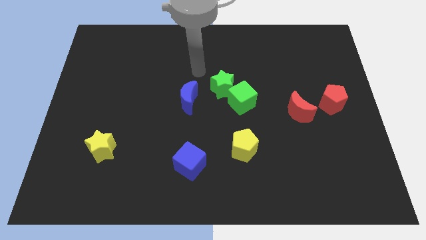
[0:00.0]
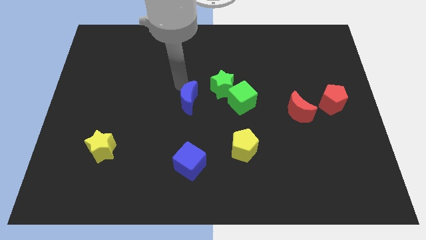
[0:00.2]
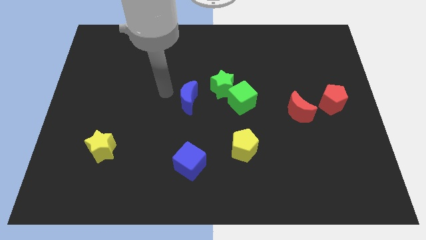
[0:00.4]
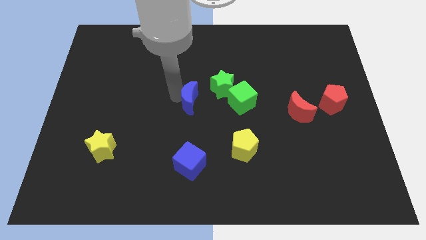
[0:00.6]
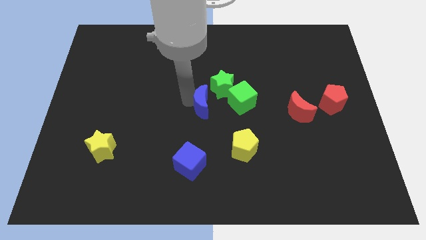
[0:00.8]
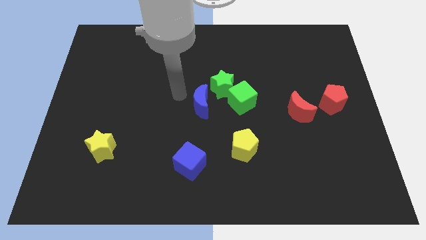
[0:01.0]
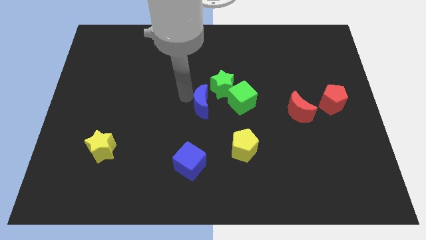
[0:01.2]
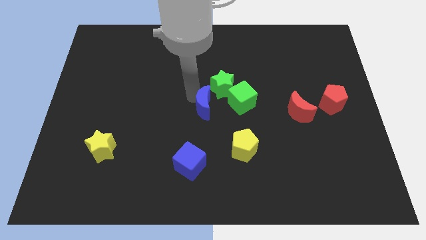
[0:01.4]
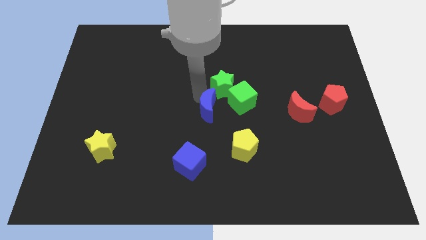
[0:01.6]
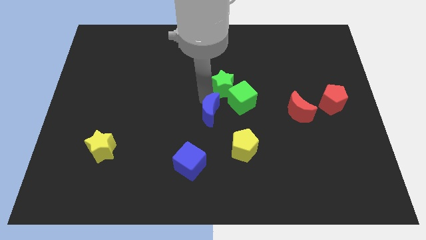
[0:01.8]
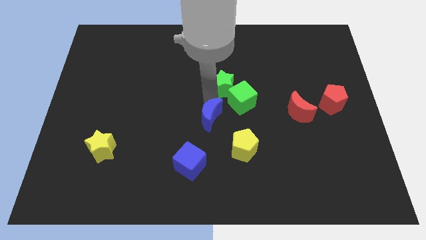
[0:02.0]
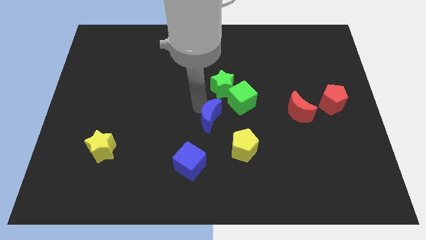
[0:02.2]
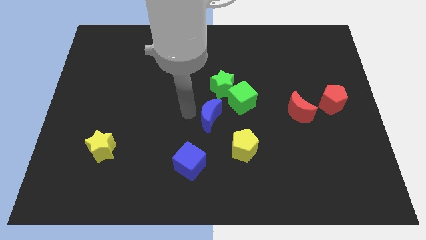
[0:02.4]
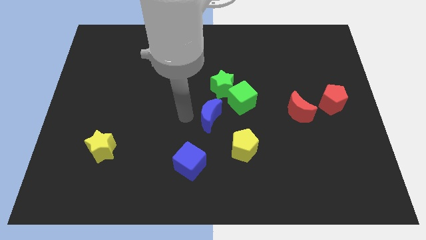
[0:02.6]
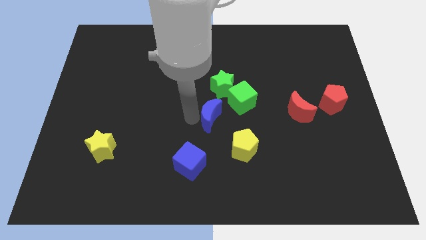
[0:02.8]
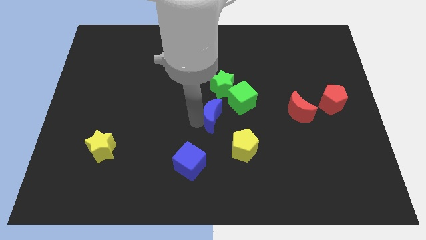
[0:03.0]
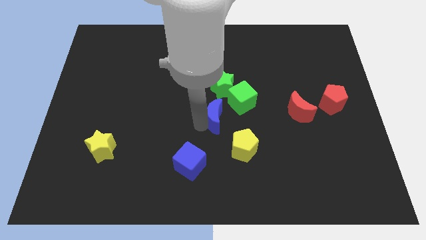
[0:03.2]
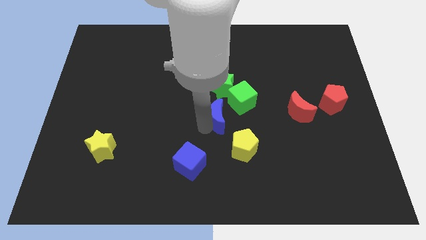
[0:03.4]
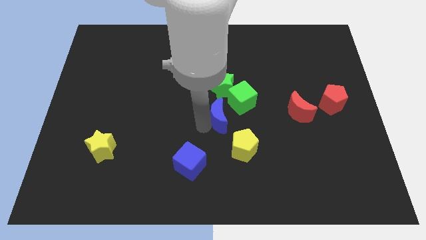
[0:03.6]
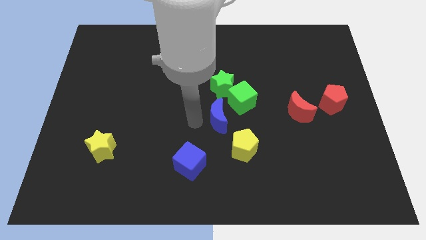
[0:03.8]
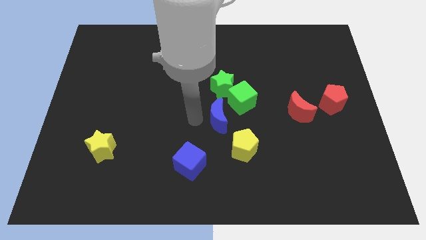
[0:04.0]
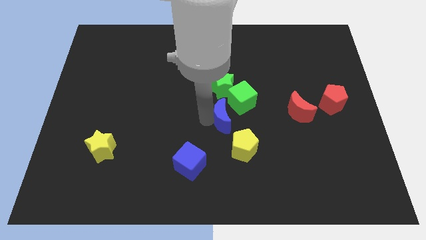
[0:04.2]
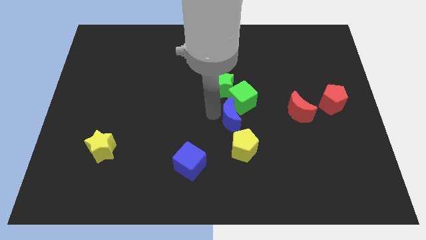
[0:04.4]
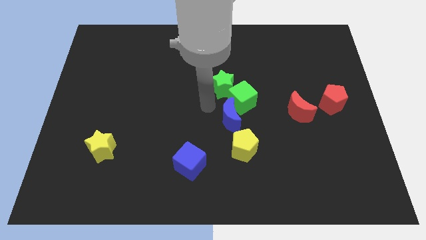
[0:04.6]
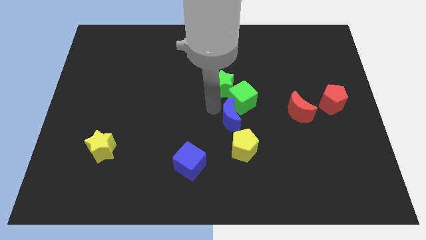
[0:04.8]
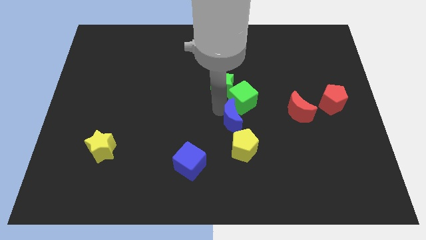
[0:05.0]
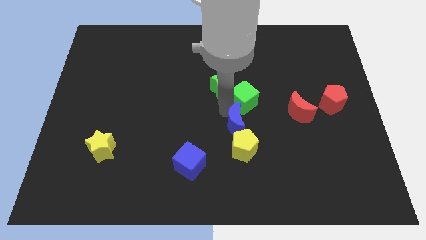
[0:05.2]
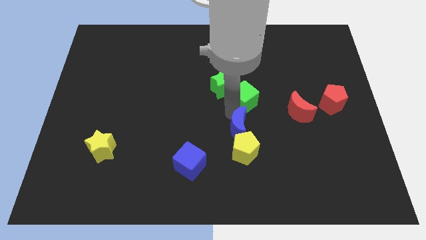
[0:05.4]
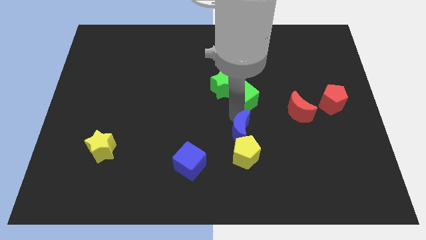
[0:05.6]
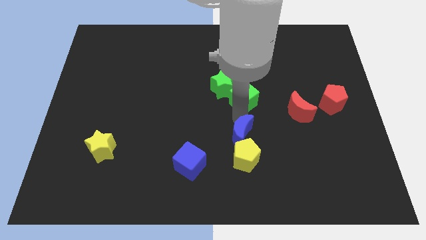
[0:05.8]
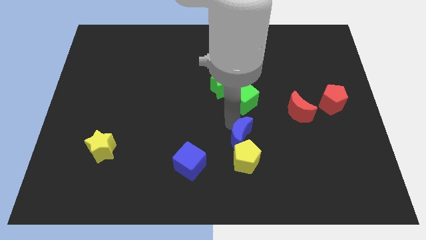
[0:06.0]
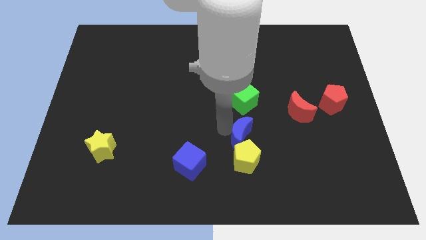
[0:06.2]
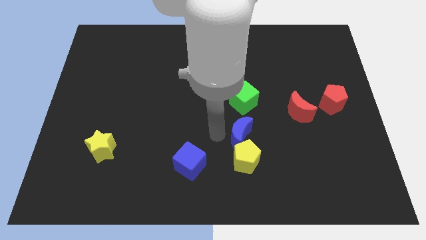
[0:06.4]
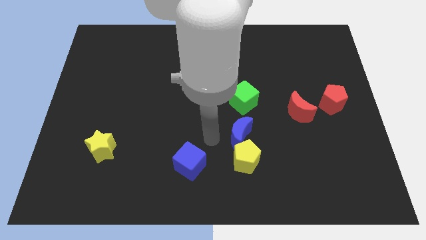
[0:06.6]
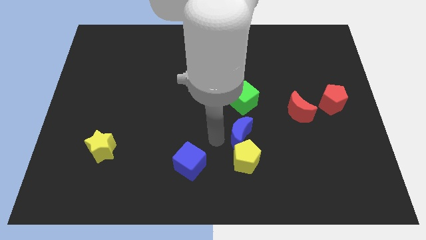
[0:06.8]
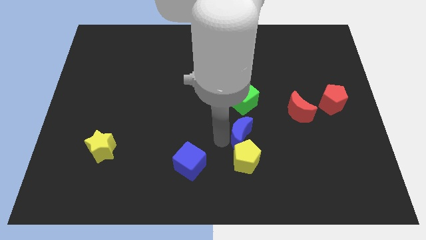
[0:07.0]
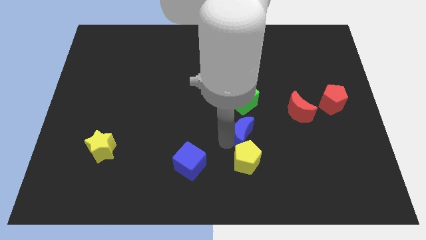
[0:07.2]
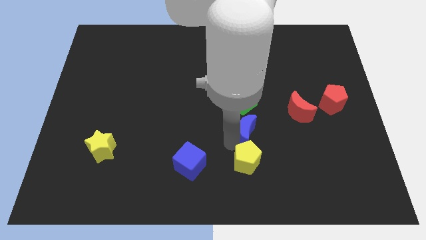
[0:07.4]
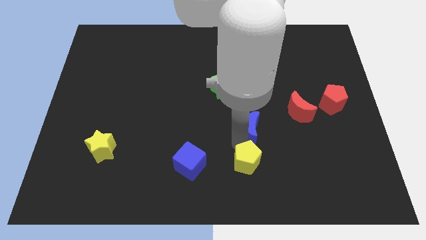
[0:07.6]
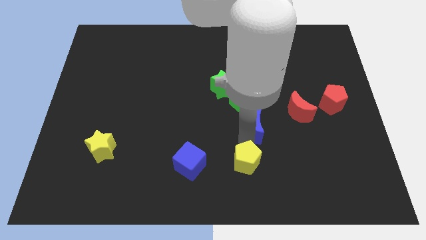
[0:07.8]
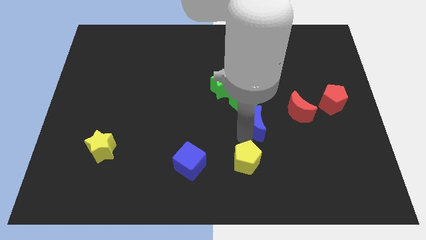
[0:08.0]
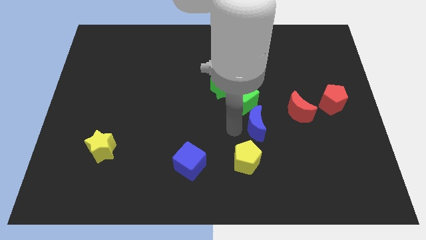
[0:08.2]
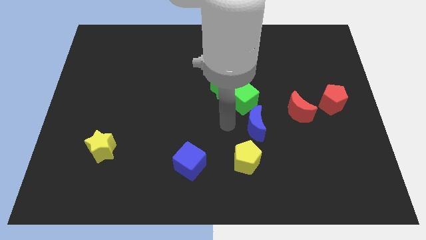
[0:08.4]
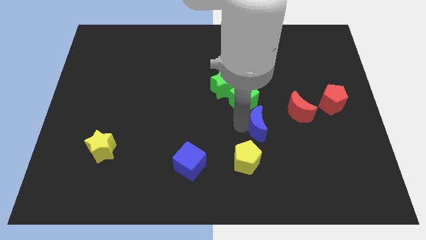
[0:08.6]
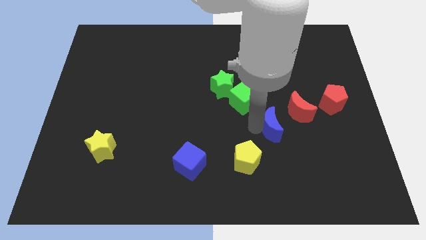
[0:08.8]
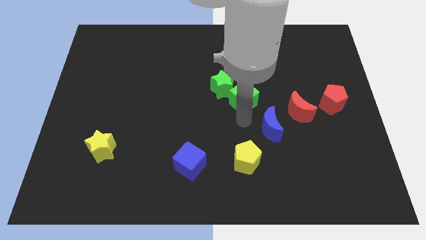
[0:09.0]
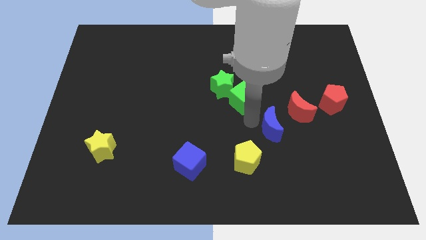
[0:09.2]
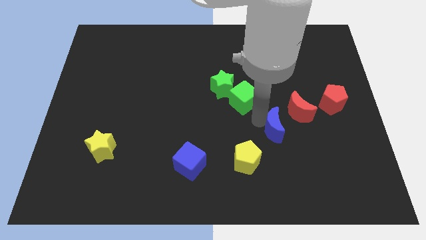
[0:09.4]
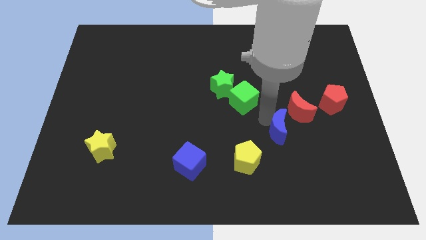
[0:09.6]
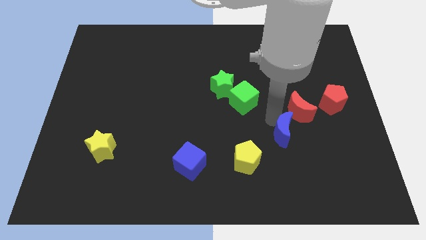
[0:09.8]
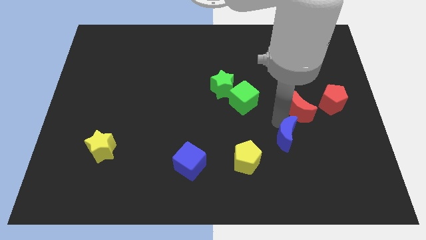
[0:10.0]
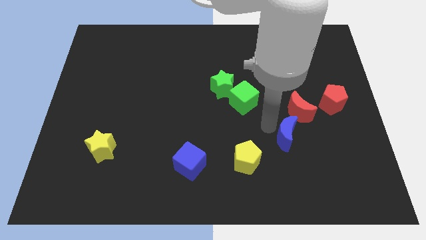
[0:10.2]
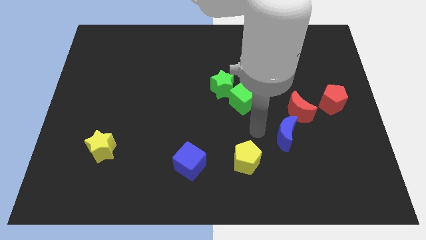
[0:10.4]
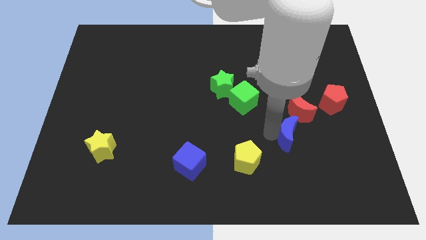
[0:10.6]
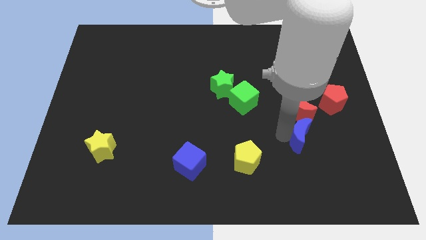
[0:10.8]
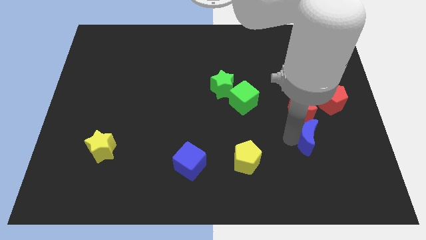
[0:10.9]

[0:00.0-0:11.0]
put the blue moon diagonally down and to the left of the red pentagon

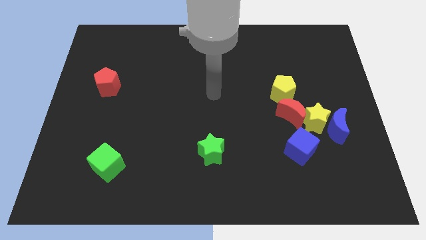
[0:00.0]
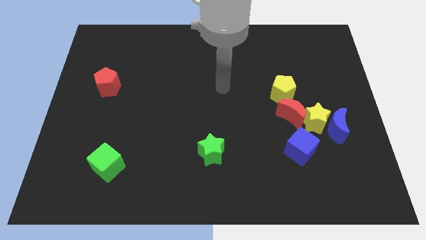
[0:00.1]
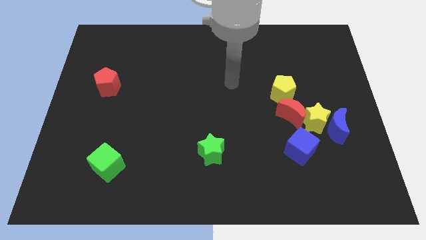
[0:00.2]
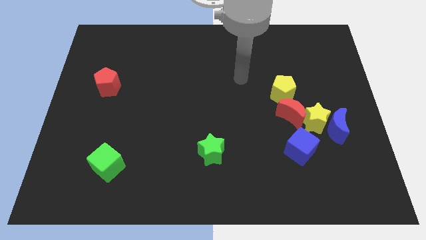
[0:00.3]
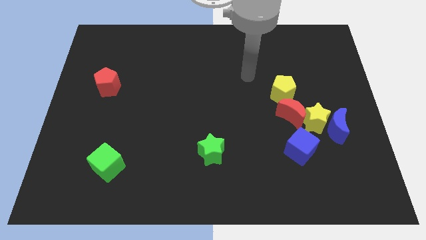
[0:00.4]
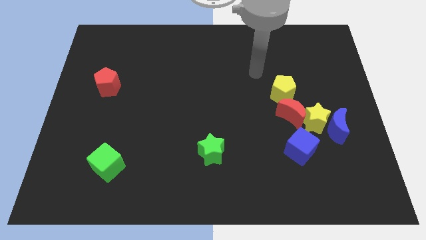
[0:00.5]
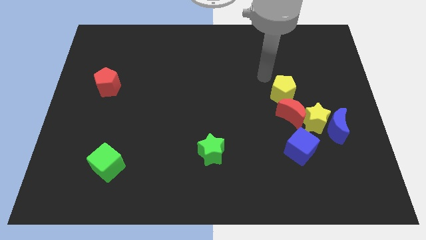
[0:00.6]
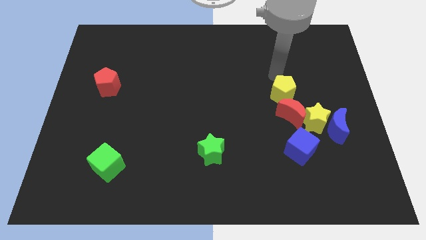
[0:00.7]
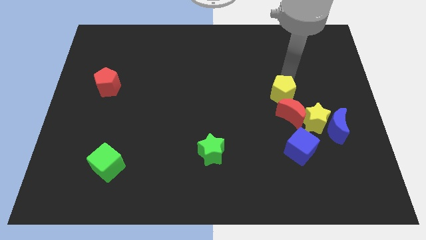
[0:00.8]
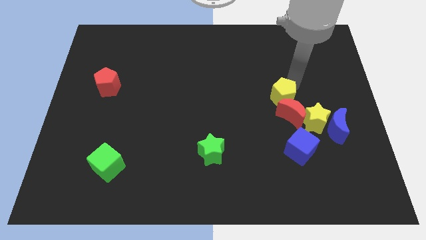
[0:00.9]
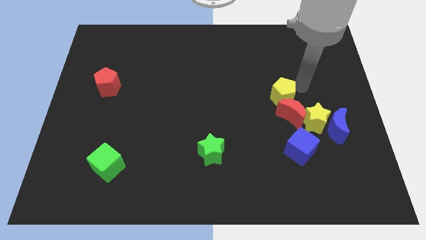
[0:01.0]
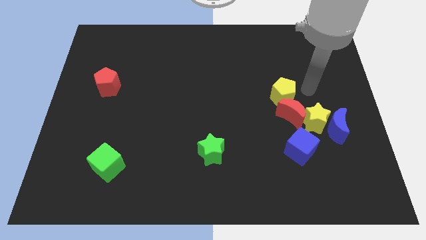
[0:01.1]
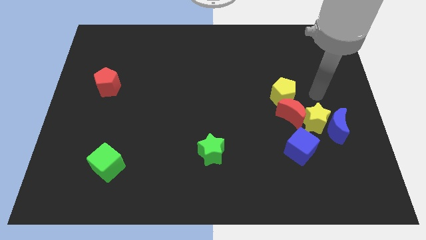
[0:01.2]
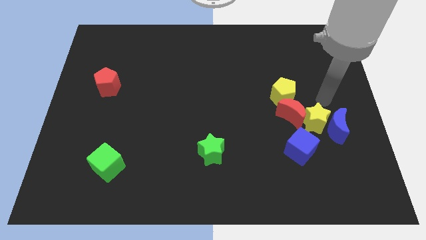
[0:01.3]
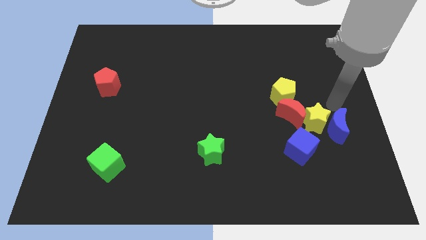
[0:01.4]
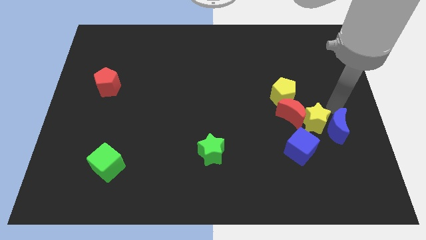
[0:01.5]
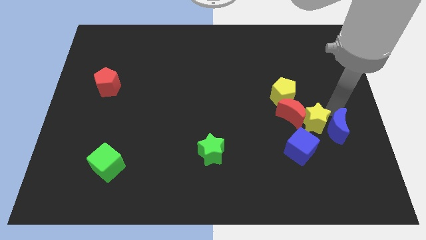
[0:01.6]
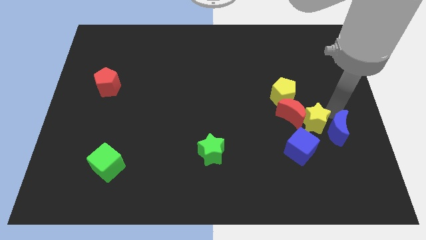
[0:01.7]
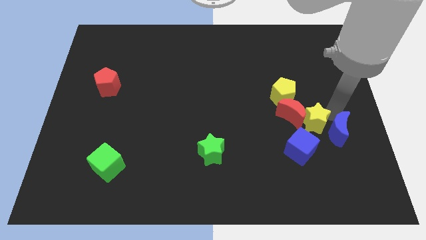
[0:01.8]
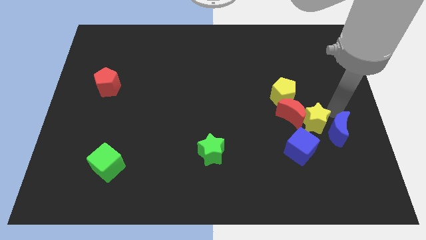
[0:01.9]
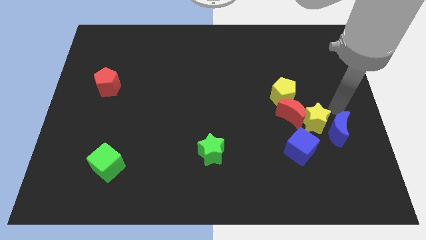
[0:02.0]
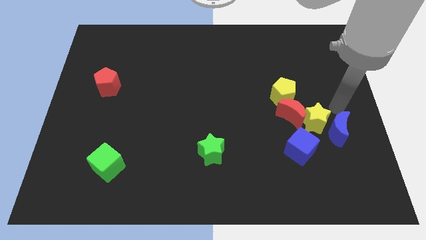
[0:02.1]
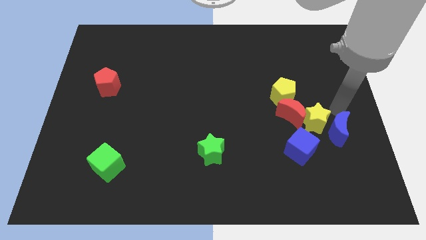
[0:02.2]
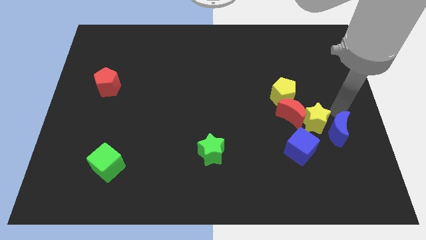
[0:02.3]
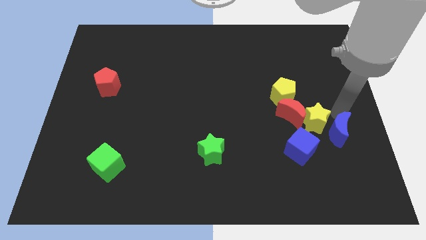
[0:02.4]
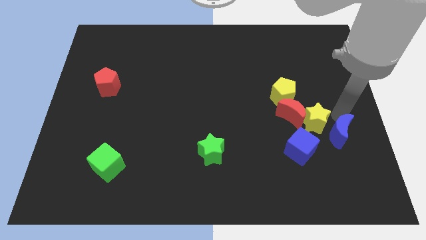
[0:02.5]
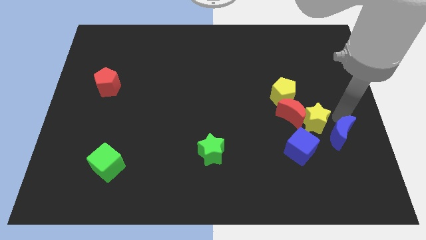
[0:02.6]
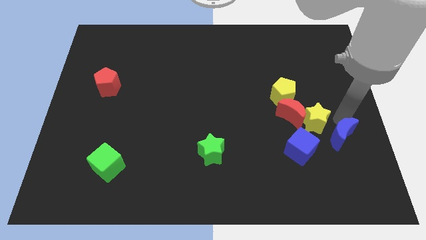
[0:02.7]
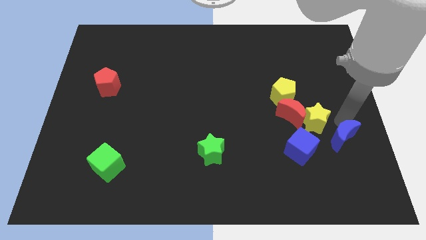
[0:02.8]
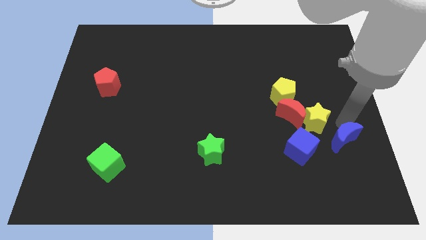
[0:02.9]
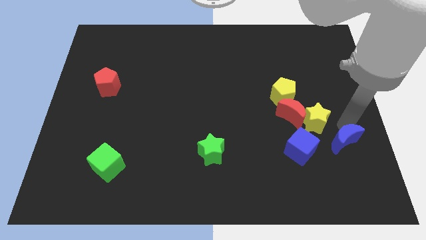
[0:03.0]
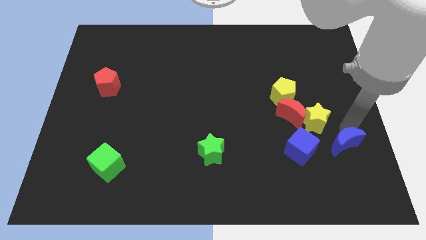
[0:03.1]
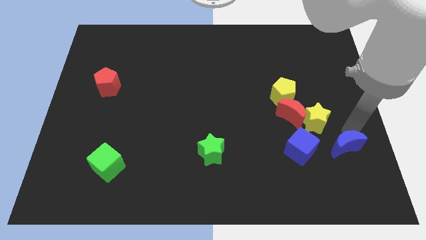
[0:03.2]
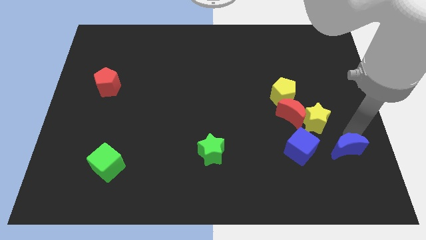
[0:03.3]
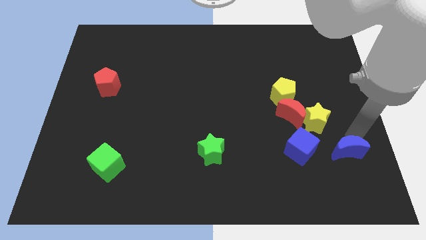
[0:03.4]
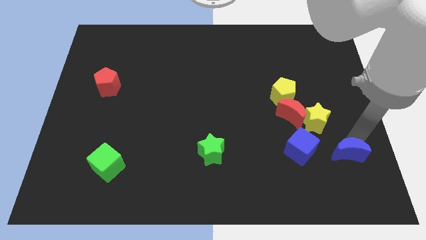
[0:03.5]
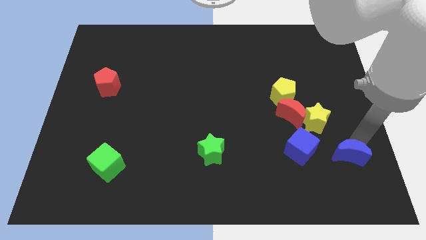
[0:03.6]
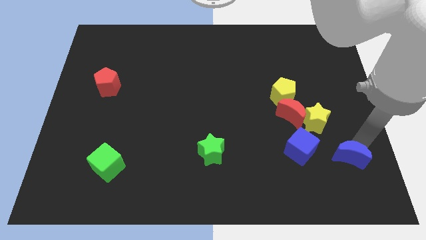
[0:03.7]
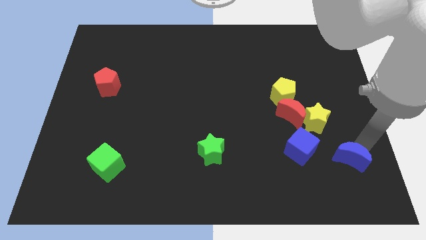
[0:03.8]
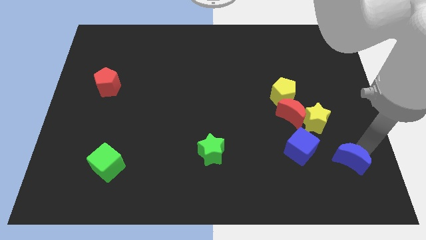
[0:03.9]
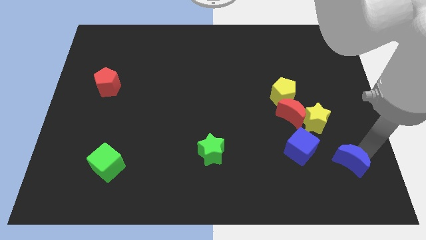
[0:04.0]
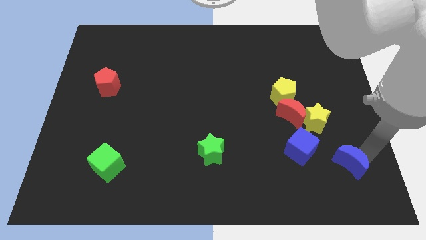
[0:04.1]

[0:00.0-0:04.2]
move the blue moon to the bottom right side of the blue cube
